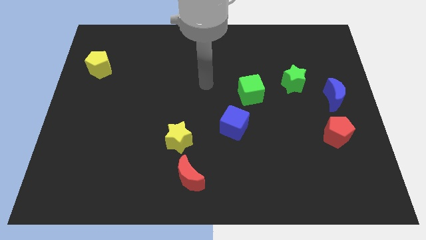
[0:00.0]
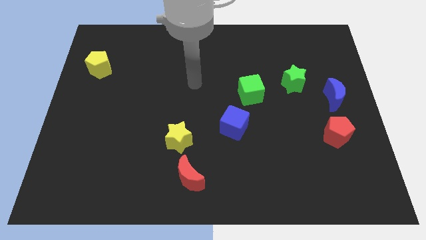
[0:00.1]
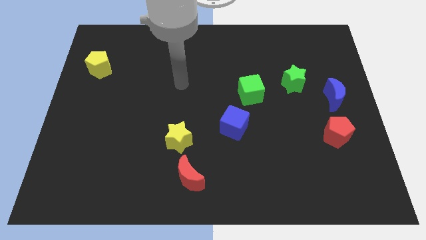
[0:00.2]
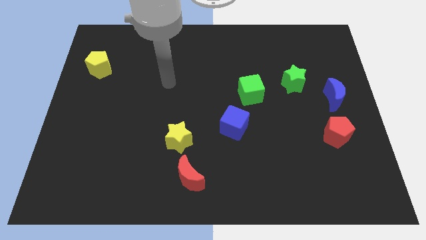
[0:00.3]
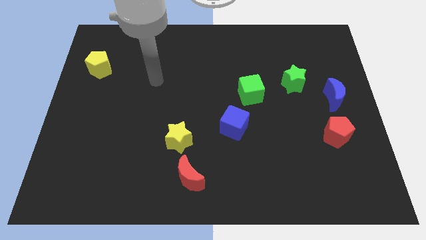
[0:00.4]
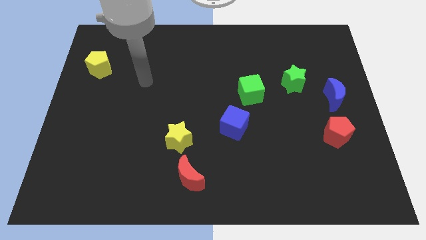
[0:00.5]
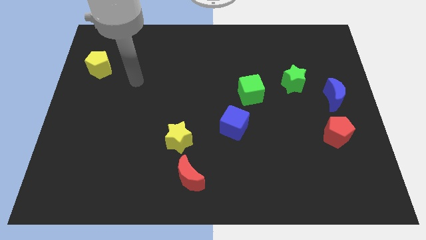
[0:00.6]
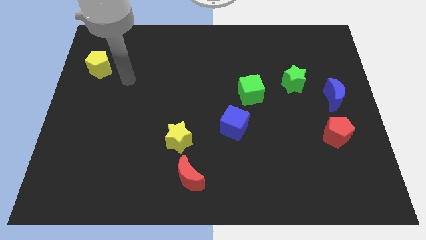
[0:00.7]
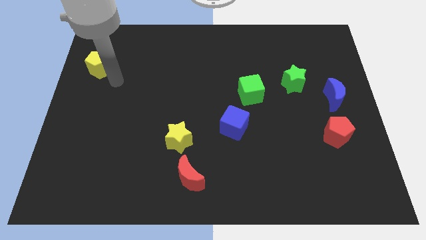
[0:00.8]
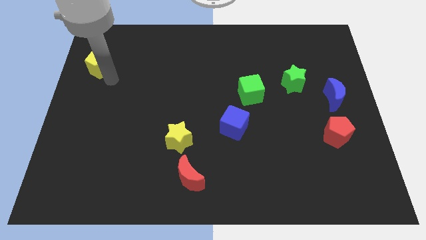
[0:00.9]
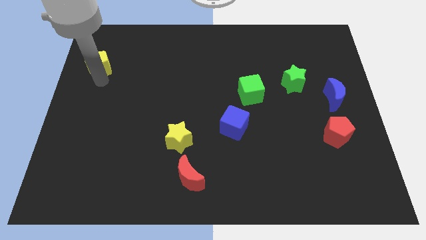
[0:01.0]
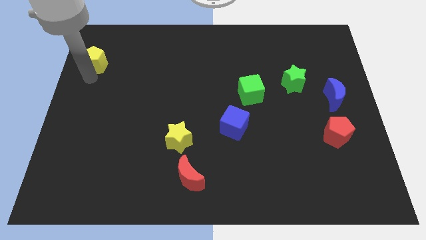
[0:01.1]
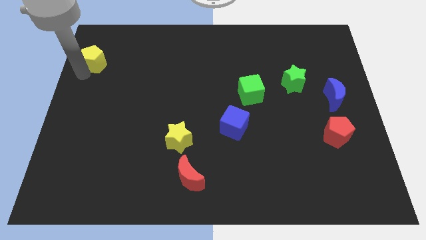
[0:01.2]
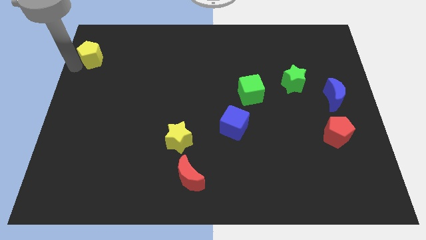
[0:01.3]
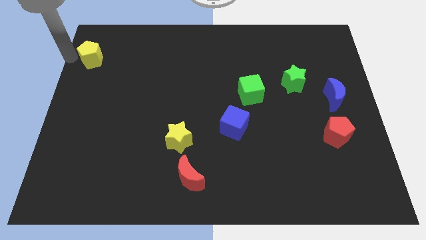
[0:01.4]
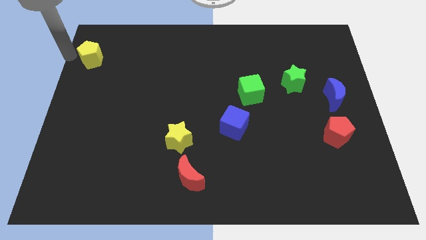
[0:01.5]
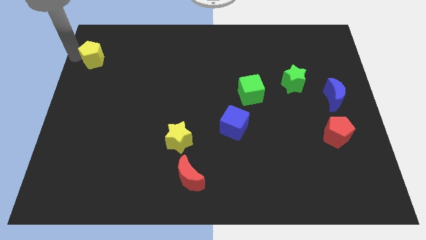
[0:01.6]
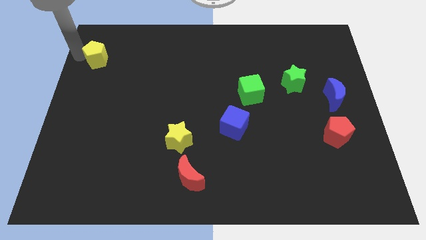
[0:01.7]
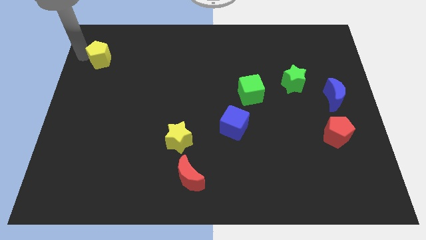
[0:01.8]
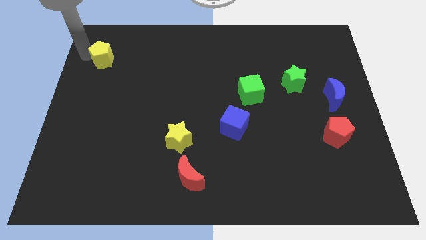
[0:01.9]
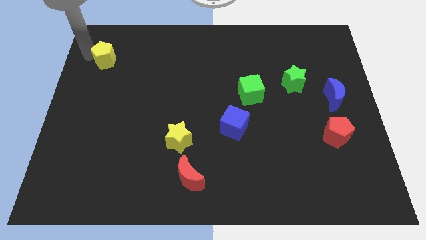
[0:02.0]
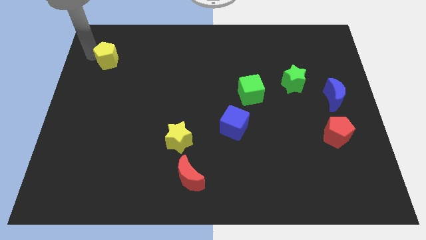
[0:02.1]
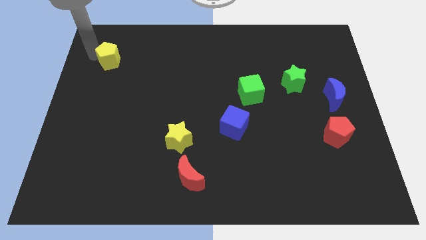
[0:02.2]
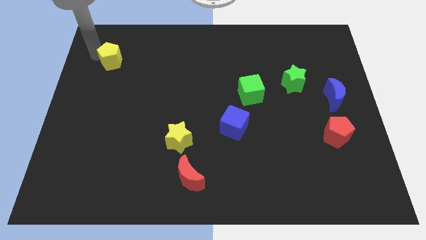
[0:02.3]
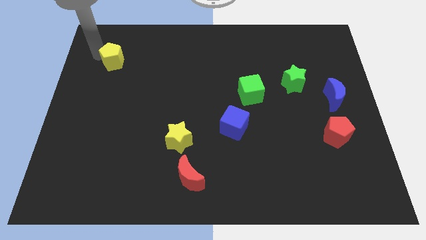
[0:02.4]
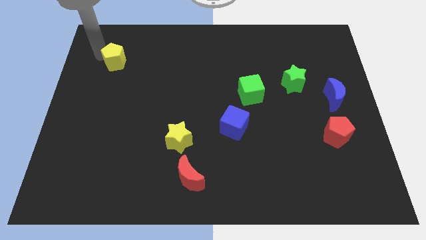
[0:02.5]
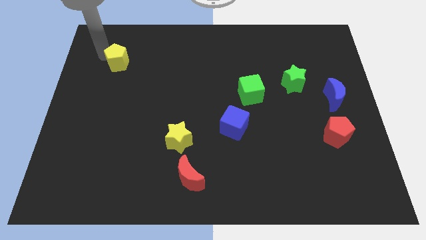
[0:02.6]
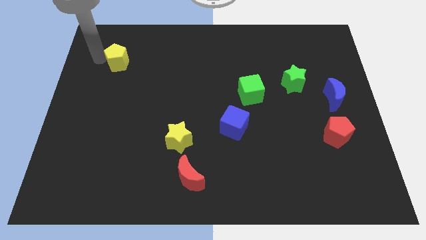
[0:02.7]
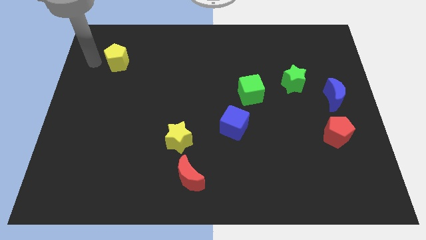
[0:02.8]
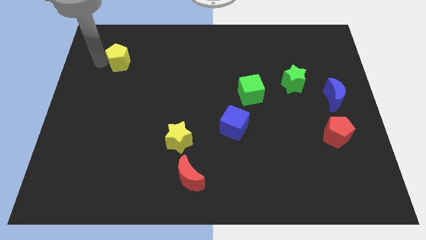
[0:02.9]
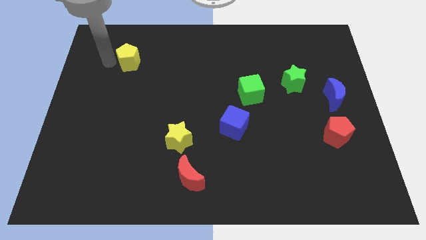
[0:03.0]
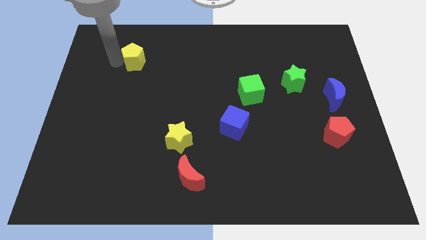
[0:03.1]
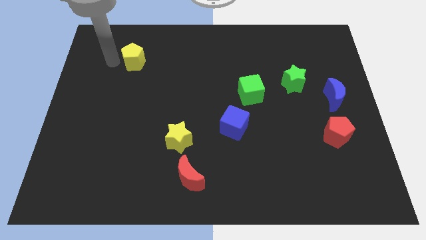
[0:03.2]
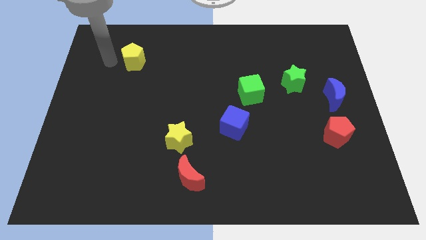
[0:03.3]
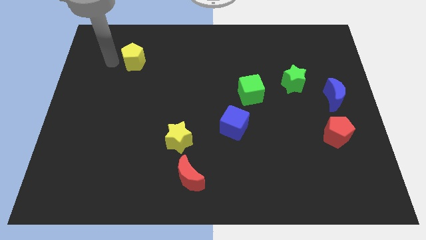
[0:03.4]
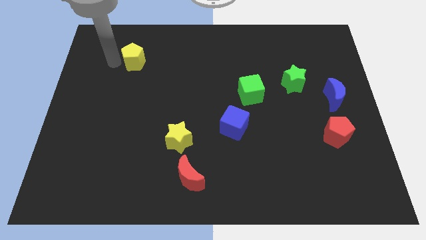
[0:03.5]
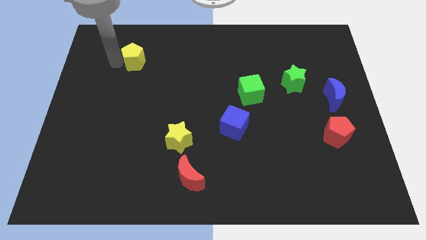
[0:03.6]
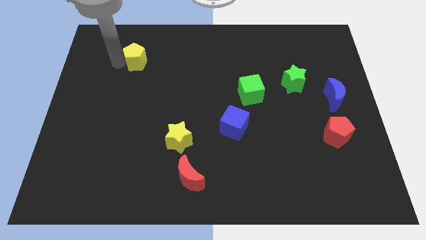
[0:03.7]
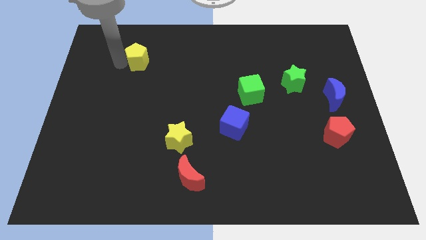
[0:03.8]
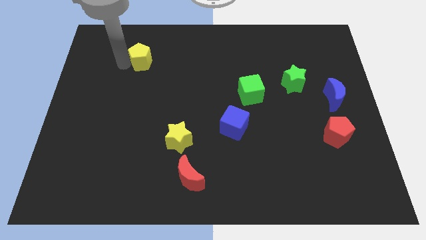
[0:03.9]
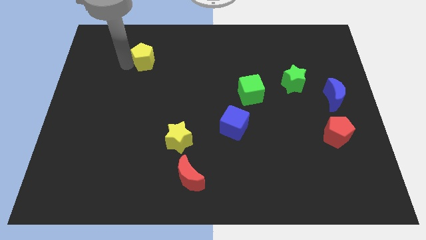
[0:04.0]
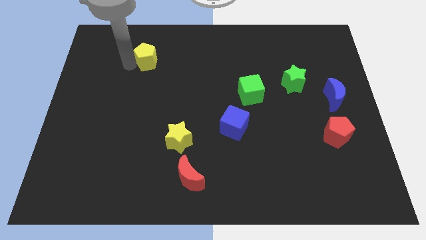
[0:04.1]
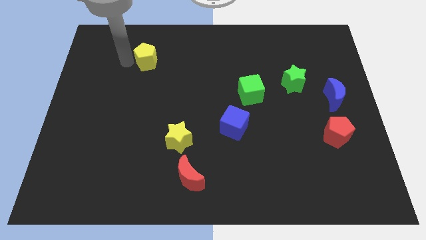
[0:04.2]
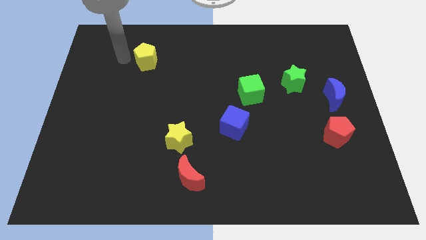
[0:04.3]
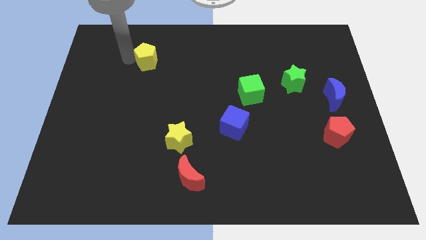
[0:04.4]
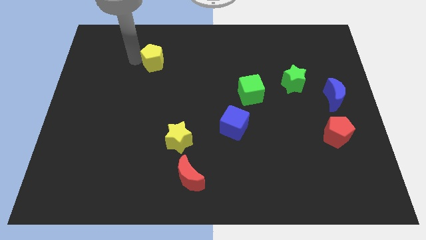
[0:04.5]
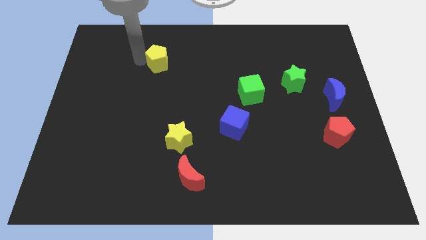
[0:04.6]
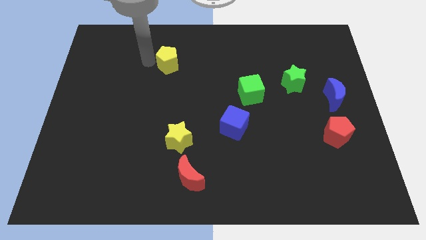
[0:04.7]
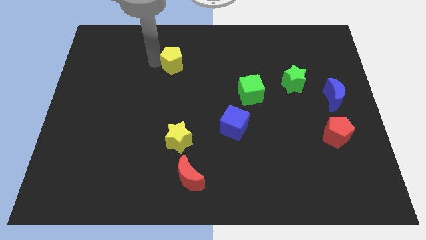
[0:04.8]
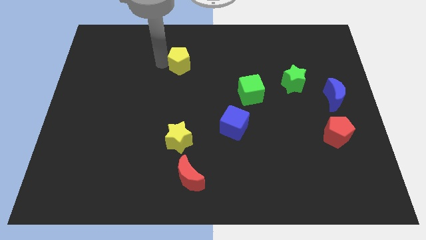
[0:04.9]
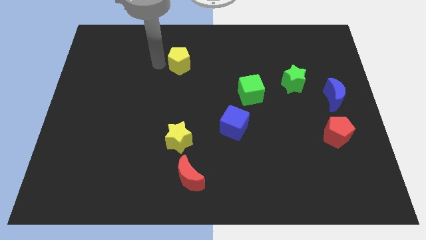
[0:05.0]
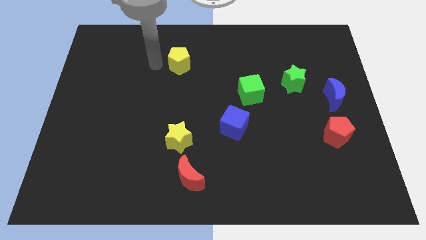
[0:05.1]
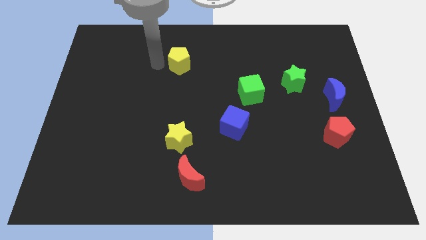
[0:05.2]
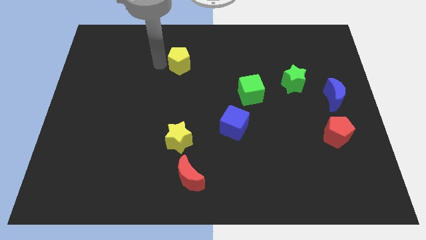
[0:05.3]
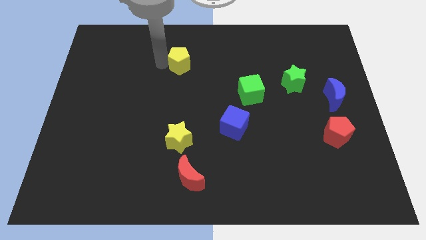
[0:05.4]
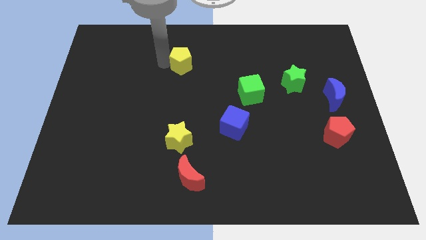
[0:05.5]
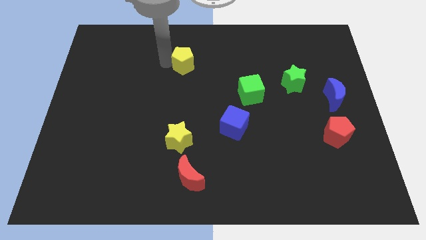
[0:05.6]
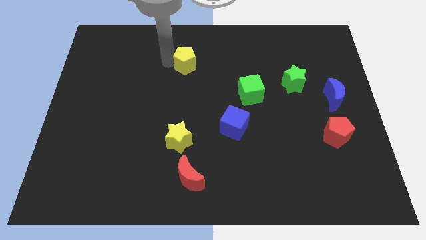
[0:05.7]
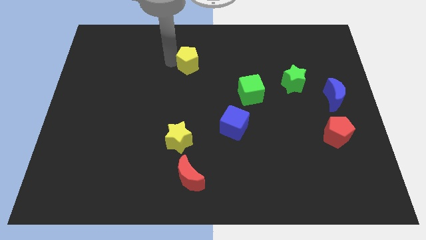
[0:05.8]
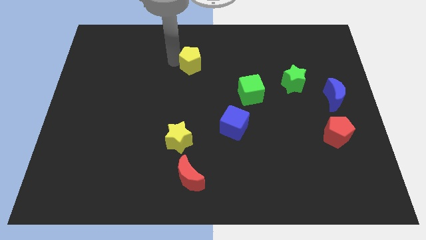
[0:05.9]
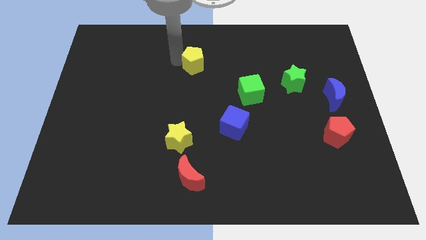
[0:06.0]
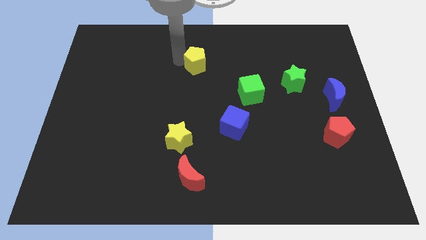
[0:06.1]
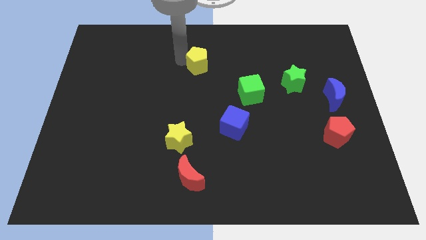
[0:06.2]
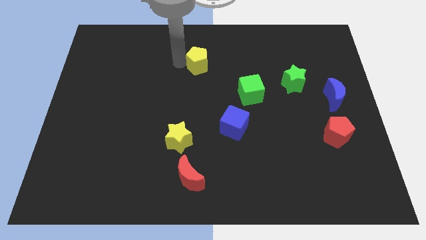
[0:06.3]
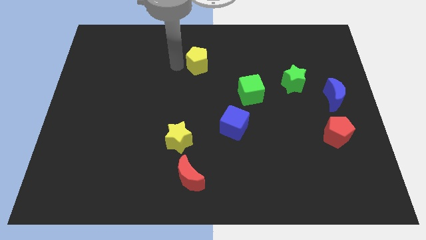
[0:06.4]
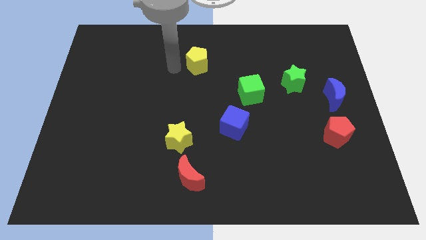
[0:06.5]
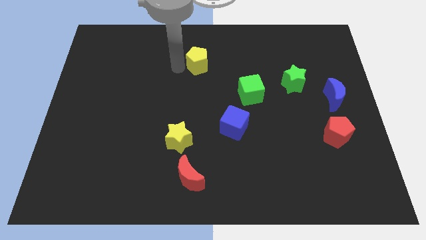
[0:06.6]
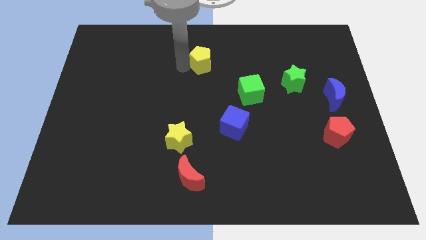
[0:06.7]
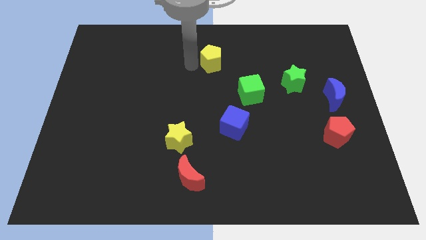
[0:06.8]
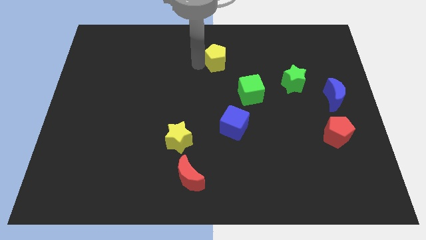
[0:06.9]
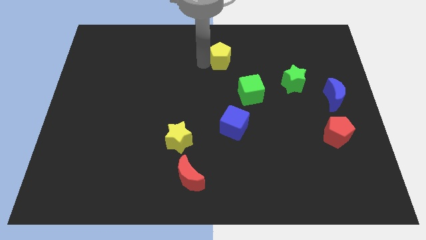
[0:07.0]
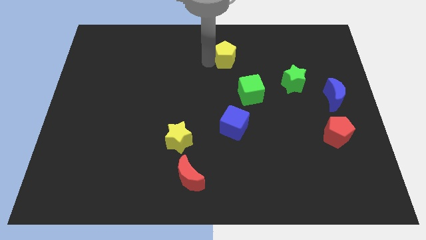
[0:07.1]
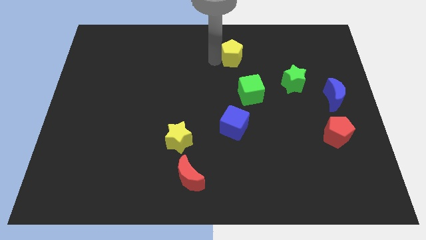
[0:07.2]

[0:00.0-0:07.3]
push the yellow pentagon above the green cube
